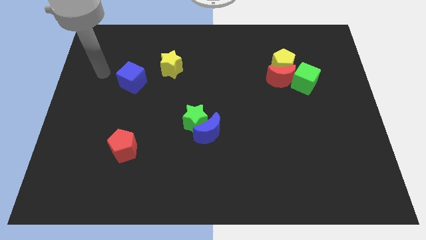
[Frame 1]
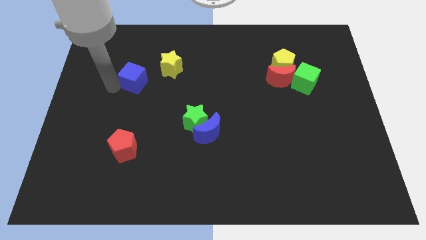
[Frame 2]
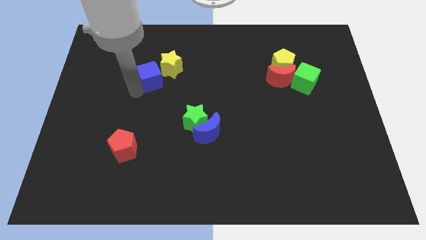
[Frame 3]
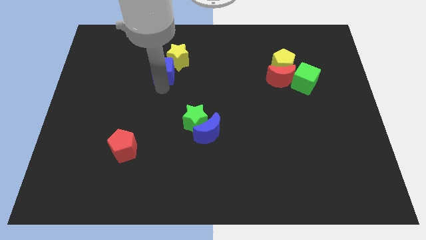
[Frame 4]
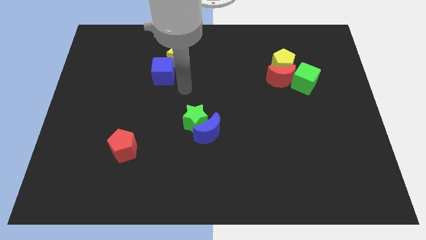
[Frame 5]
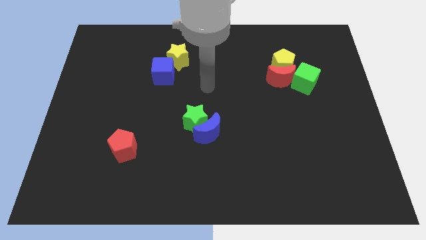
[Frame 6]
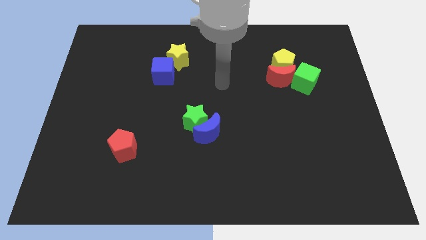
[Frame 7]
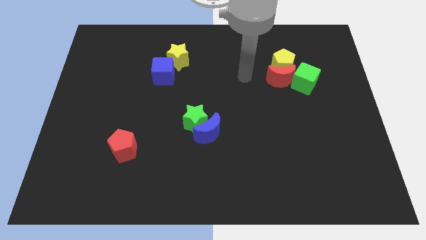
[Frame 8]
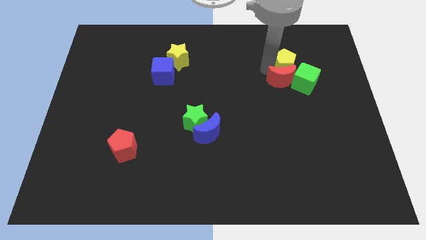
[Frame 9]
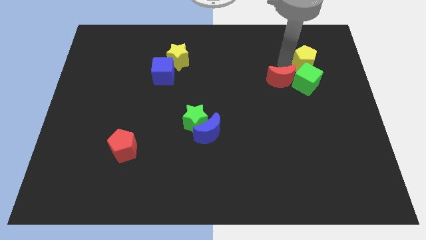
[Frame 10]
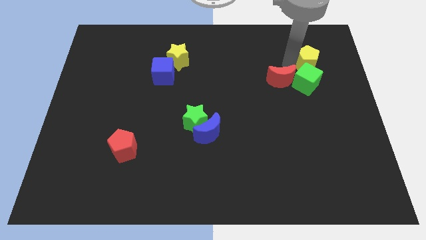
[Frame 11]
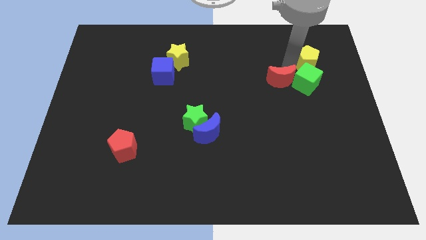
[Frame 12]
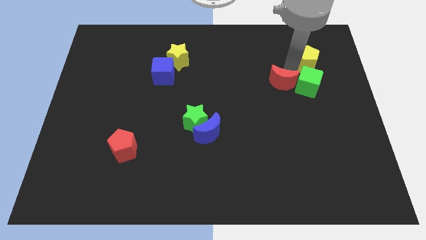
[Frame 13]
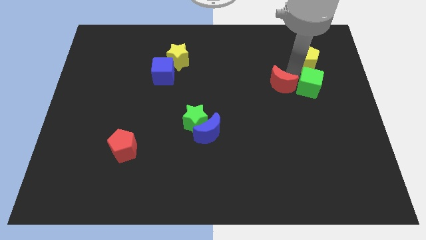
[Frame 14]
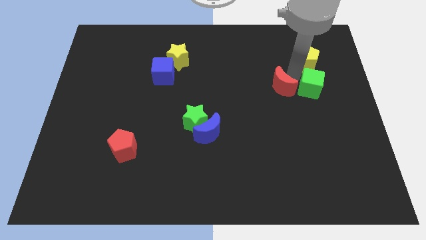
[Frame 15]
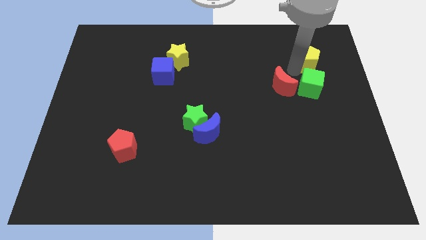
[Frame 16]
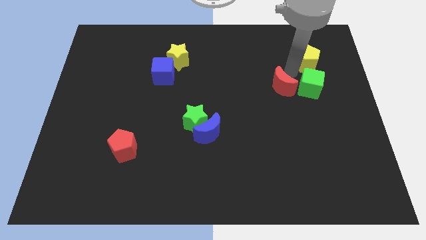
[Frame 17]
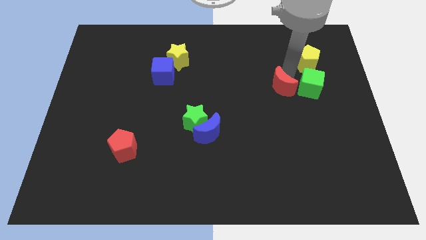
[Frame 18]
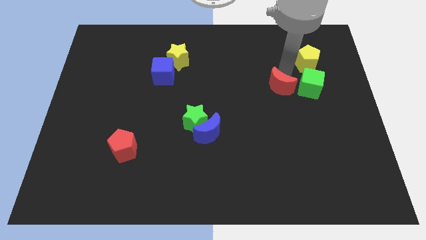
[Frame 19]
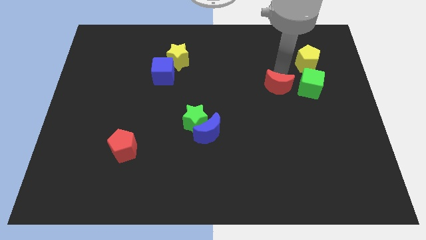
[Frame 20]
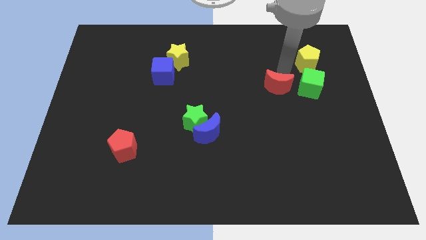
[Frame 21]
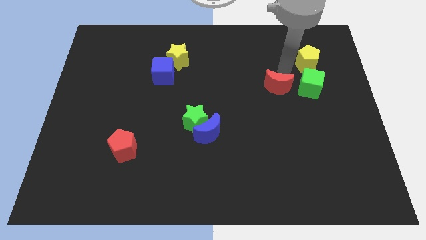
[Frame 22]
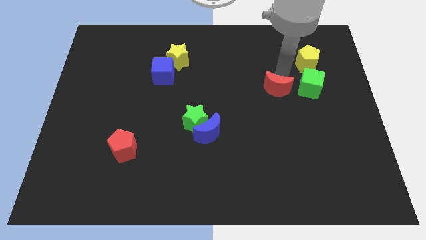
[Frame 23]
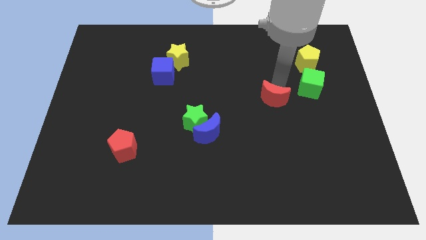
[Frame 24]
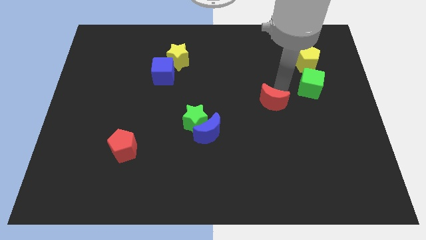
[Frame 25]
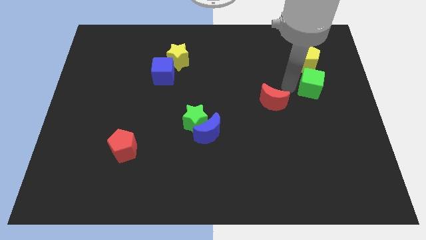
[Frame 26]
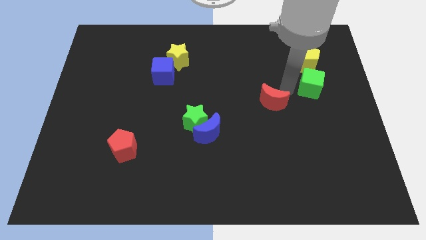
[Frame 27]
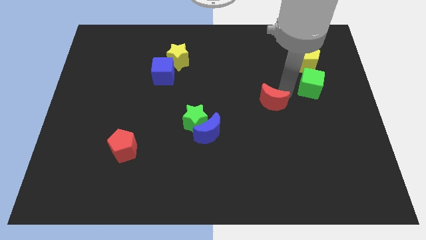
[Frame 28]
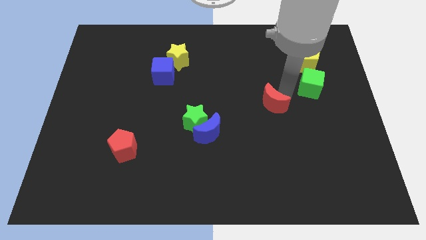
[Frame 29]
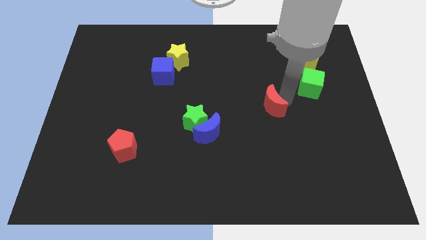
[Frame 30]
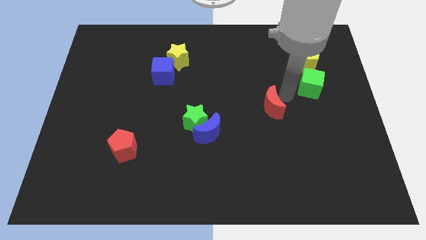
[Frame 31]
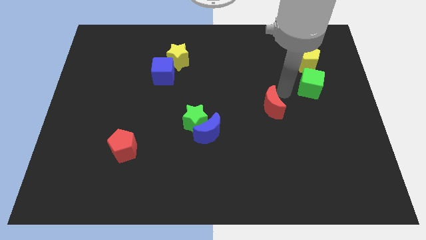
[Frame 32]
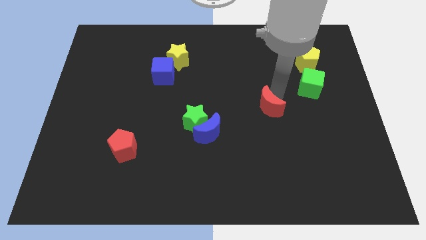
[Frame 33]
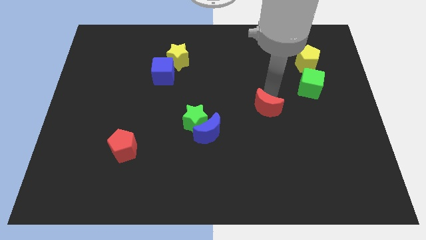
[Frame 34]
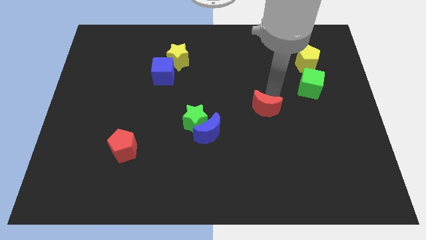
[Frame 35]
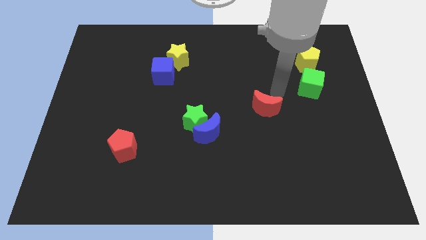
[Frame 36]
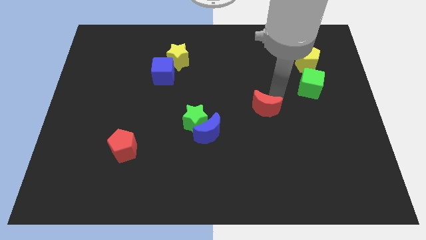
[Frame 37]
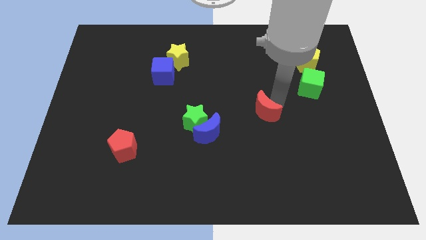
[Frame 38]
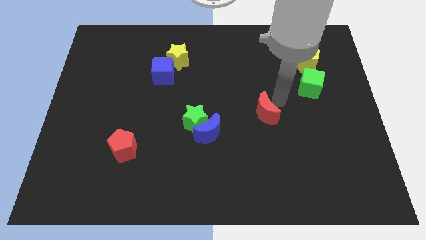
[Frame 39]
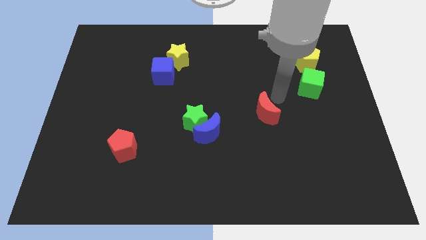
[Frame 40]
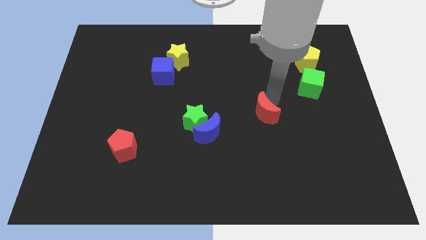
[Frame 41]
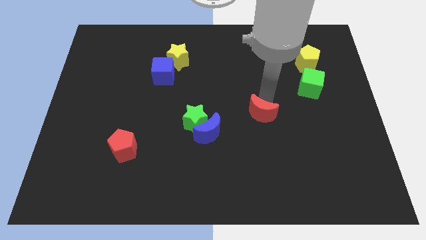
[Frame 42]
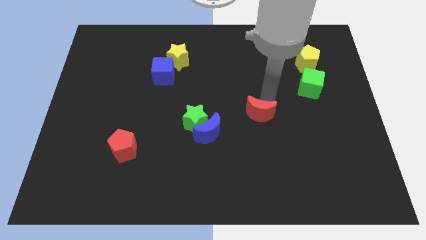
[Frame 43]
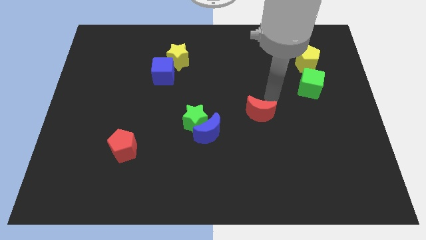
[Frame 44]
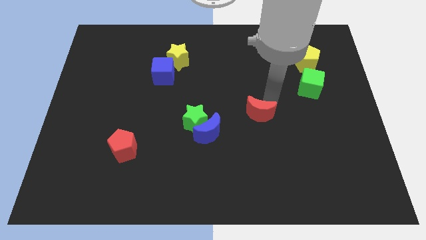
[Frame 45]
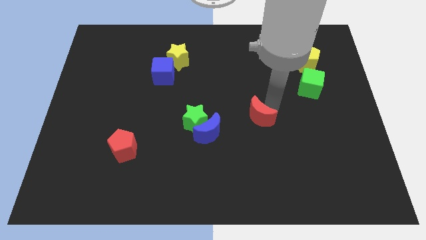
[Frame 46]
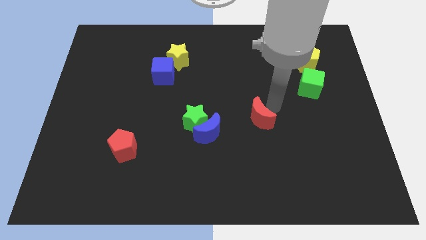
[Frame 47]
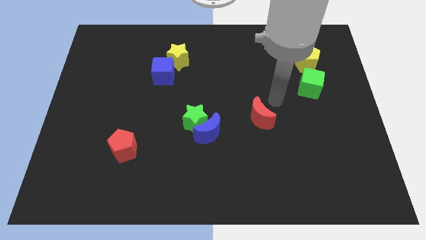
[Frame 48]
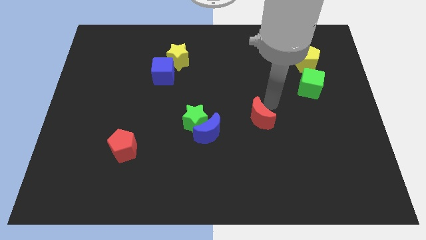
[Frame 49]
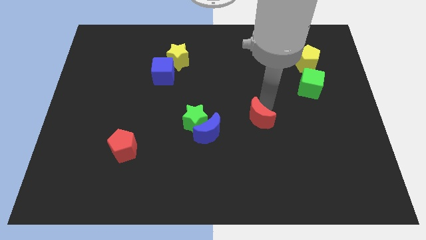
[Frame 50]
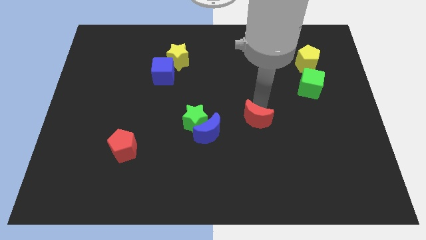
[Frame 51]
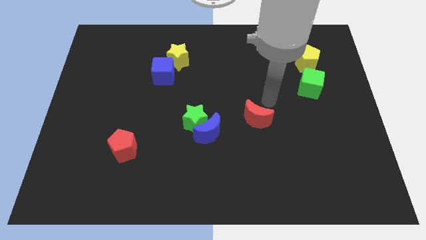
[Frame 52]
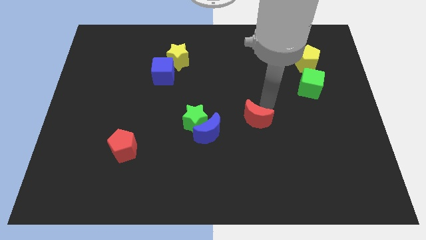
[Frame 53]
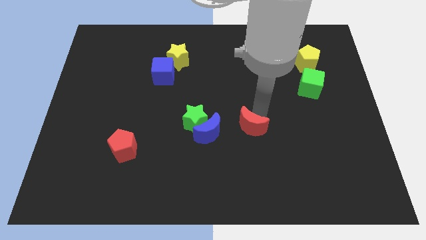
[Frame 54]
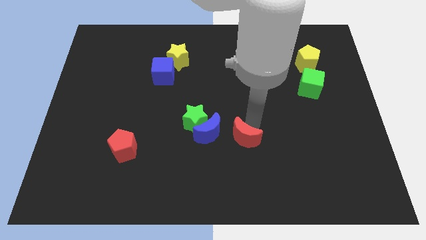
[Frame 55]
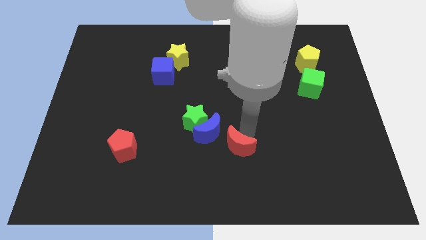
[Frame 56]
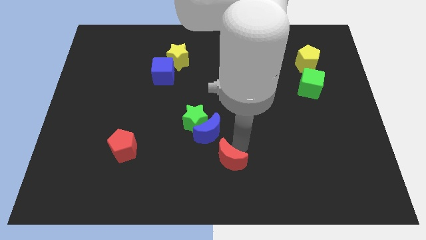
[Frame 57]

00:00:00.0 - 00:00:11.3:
move the red moon below the blue moon

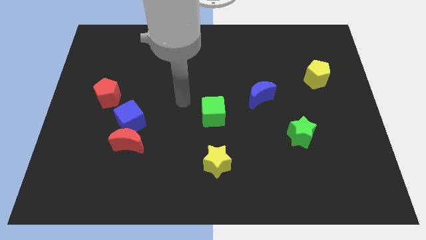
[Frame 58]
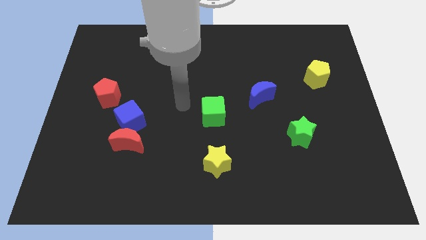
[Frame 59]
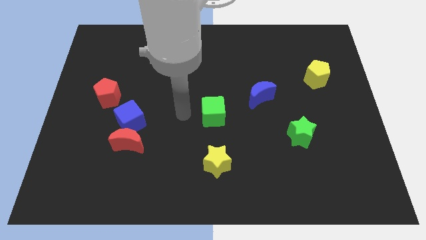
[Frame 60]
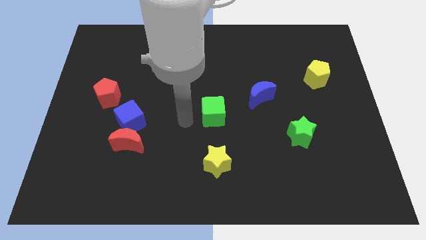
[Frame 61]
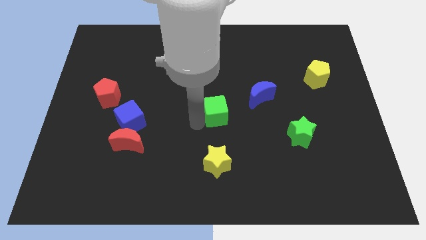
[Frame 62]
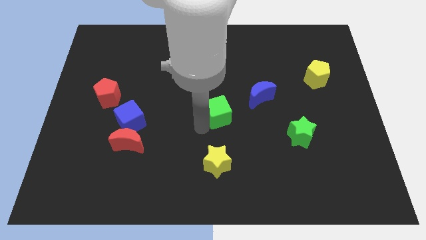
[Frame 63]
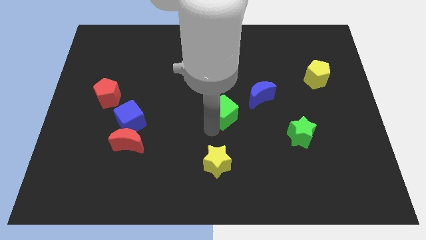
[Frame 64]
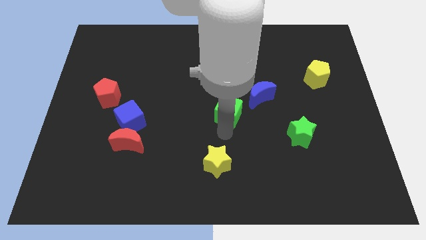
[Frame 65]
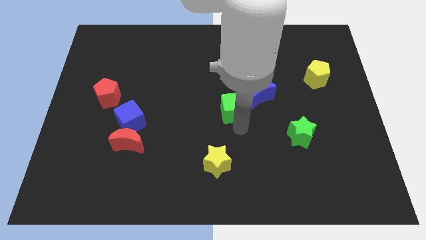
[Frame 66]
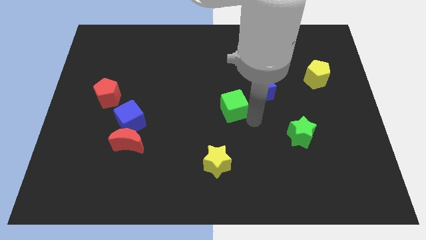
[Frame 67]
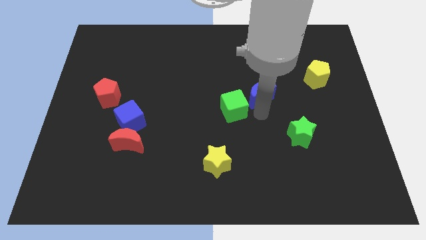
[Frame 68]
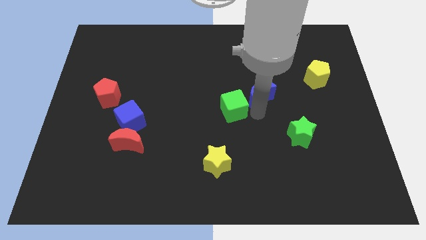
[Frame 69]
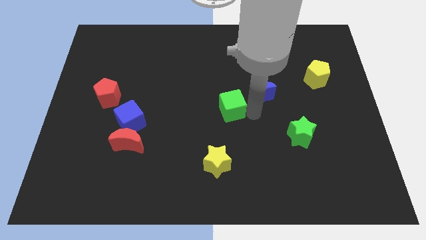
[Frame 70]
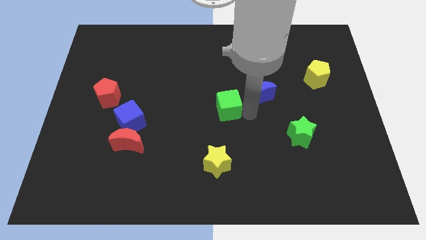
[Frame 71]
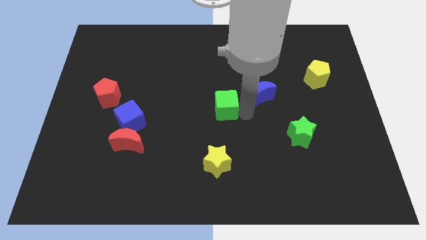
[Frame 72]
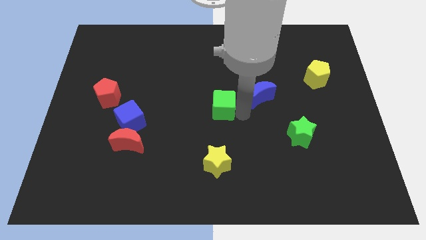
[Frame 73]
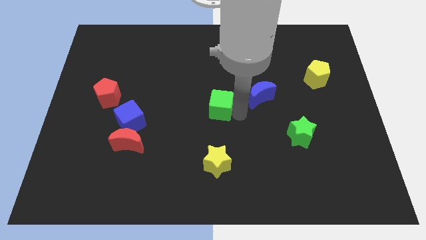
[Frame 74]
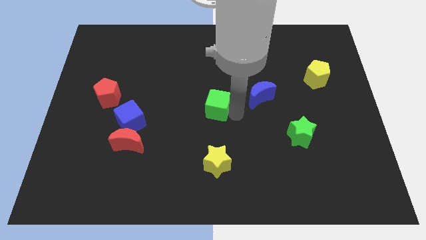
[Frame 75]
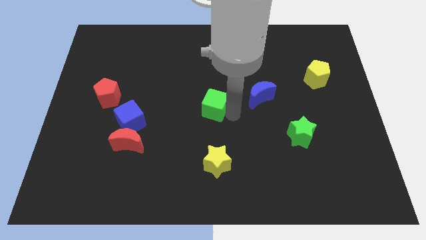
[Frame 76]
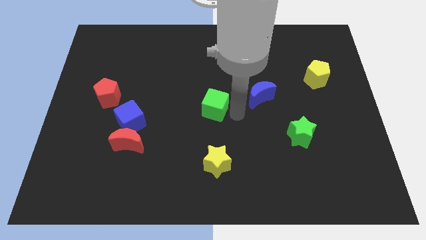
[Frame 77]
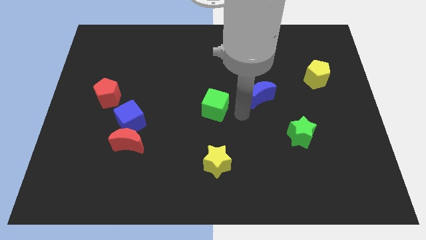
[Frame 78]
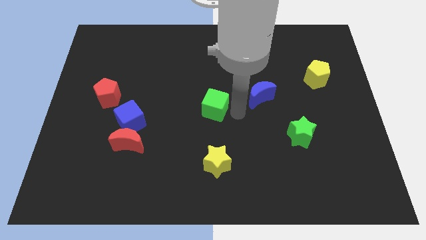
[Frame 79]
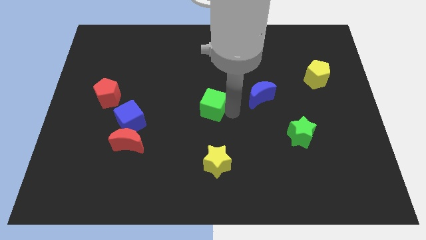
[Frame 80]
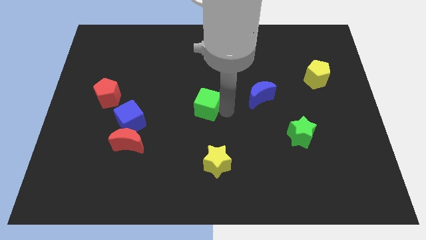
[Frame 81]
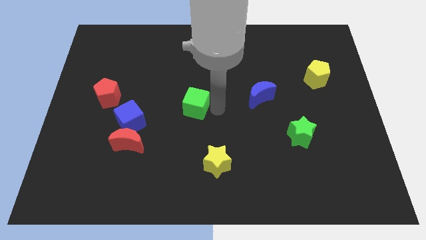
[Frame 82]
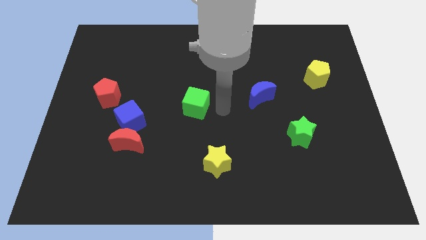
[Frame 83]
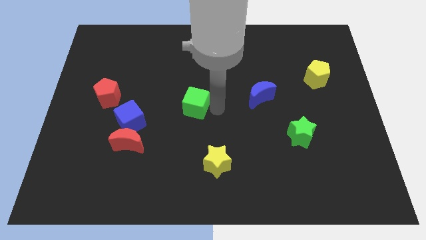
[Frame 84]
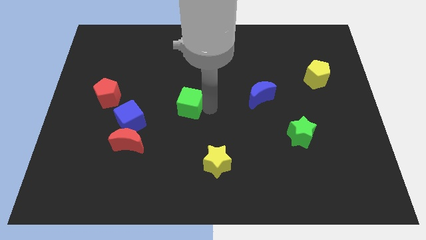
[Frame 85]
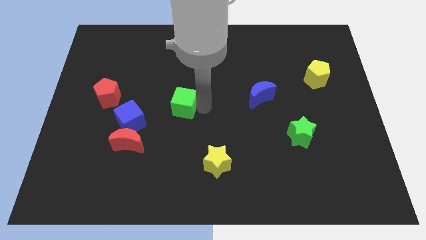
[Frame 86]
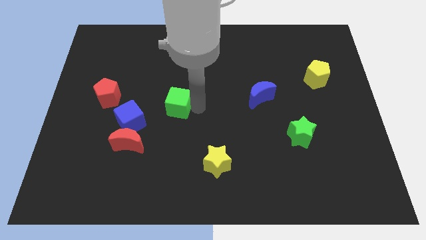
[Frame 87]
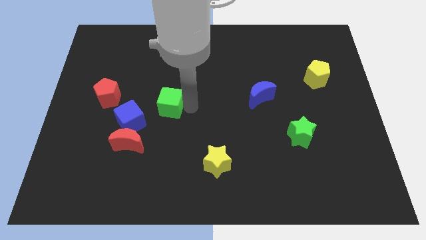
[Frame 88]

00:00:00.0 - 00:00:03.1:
move the green cube to the top right side of the blue cube
